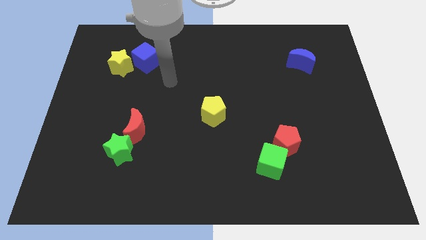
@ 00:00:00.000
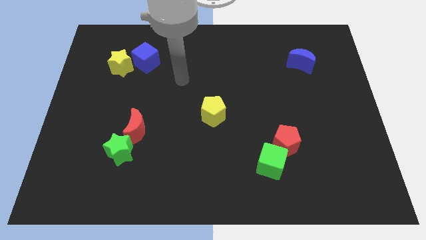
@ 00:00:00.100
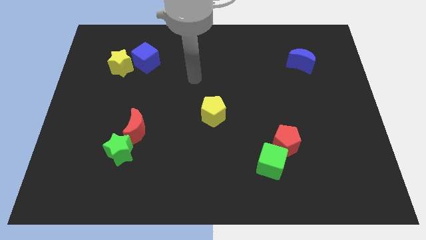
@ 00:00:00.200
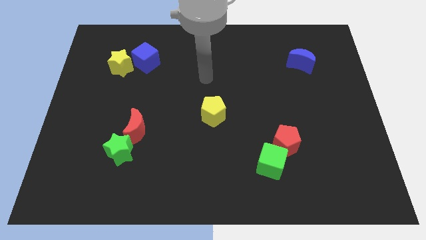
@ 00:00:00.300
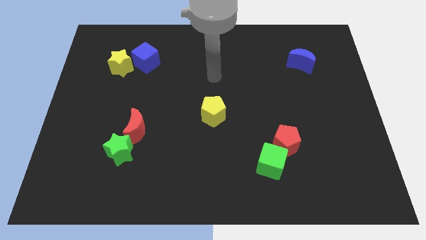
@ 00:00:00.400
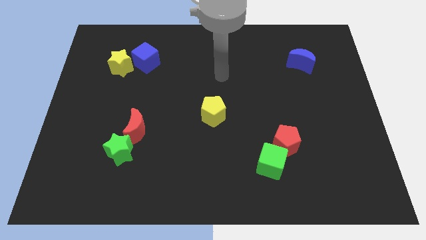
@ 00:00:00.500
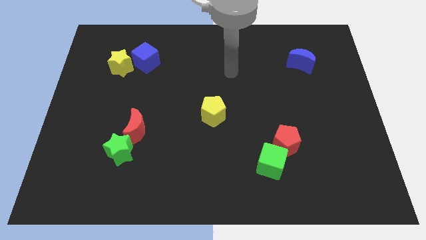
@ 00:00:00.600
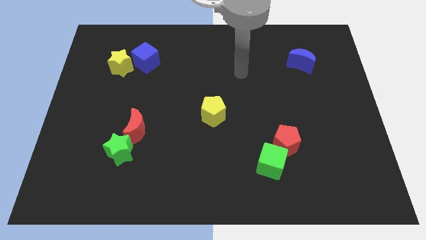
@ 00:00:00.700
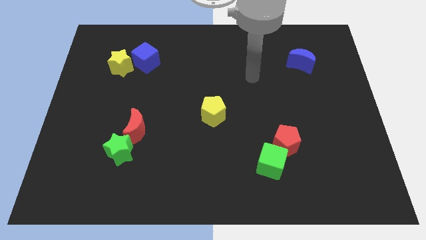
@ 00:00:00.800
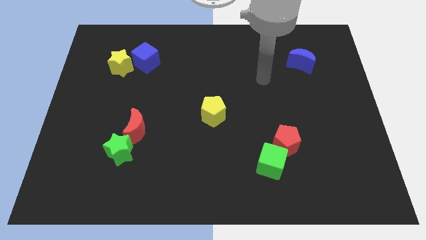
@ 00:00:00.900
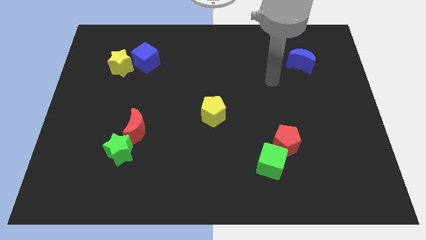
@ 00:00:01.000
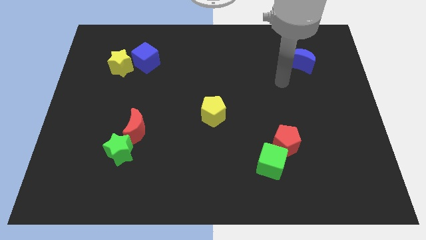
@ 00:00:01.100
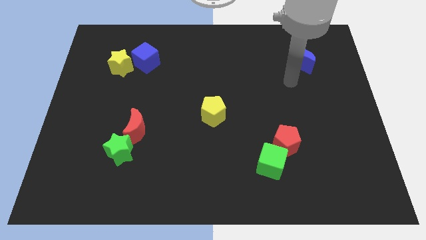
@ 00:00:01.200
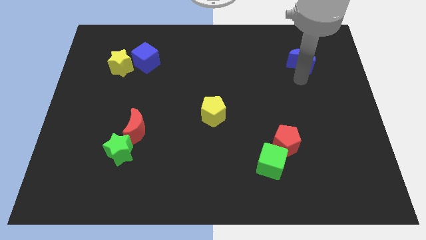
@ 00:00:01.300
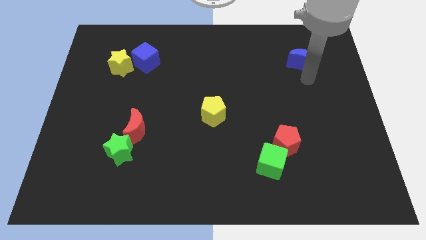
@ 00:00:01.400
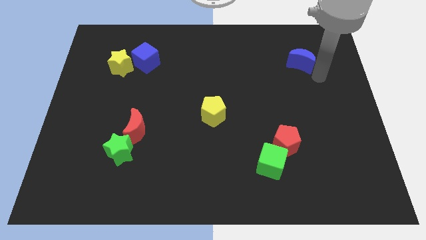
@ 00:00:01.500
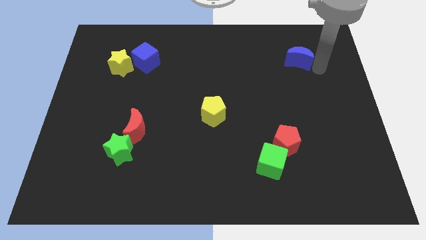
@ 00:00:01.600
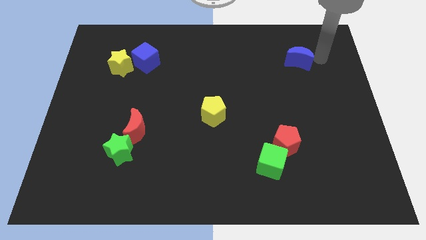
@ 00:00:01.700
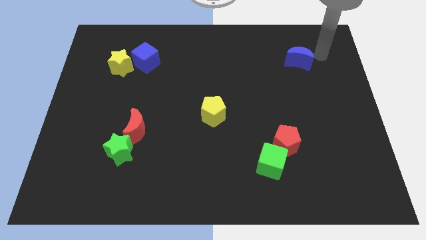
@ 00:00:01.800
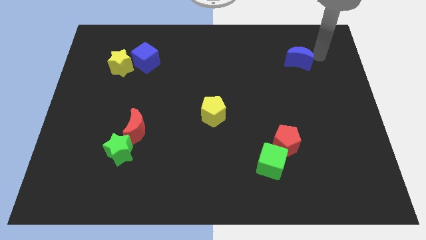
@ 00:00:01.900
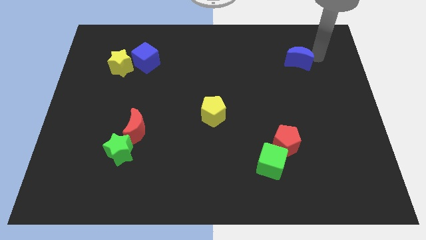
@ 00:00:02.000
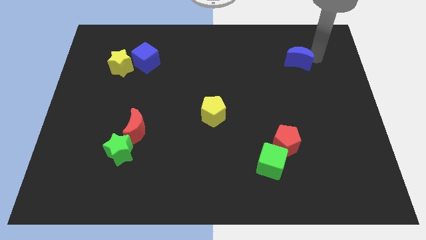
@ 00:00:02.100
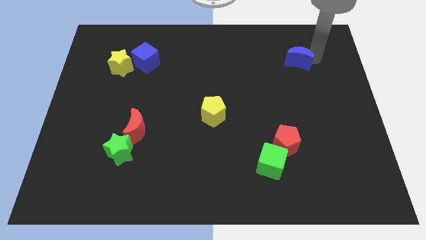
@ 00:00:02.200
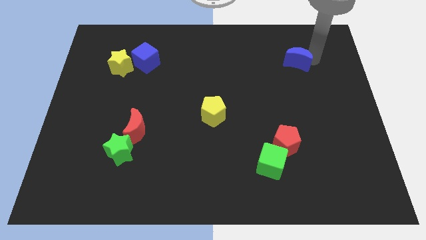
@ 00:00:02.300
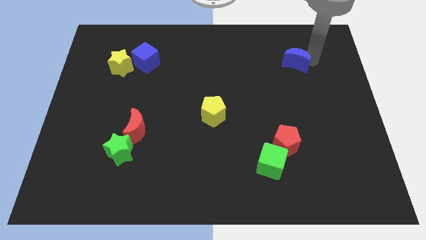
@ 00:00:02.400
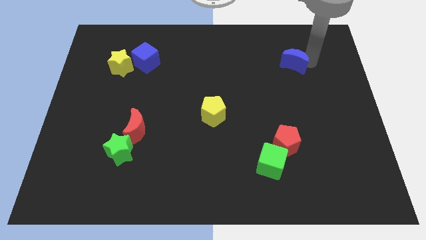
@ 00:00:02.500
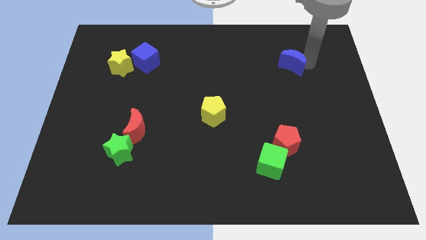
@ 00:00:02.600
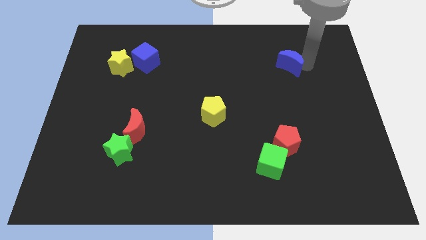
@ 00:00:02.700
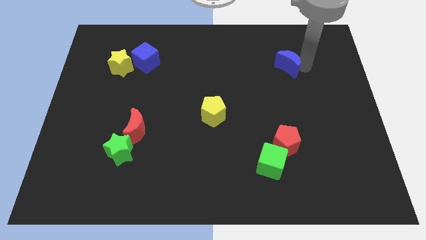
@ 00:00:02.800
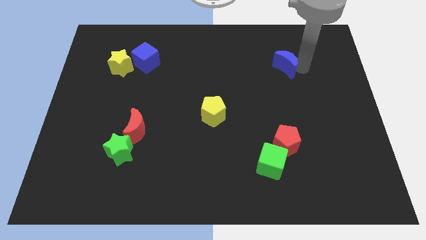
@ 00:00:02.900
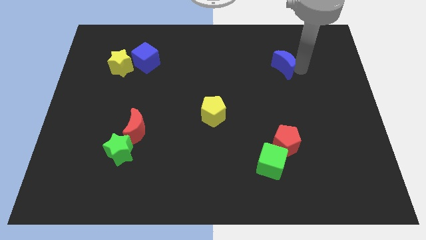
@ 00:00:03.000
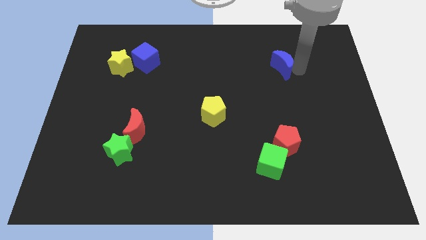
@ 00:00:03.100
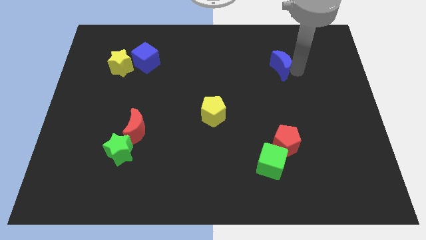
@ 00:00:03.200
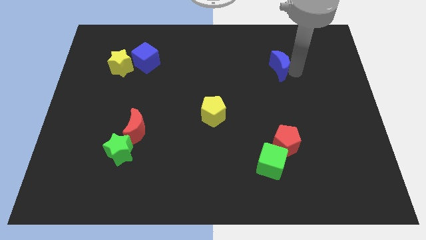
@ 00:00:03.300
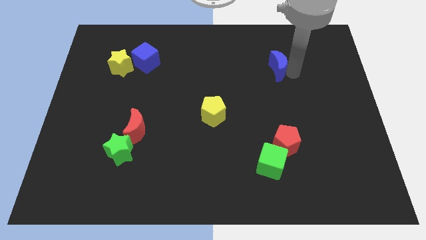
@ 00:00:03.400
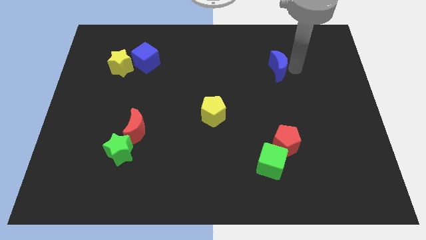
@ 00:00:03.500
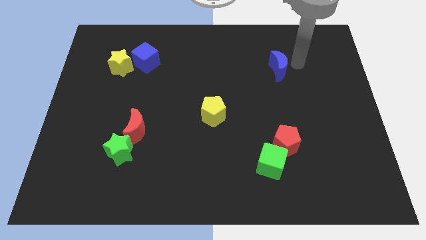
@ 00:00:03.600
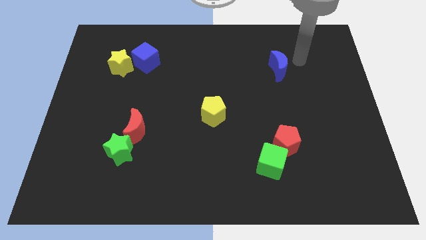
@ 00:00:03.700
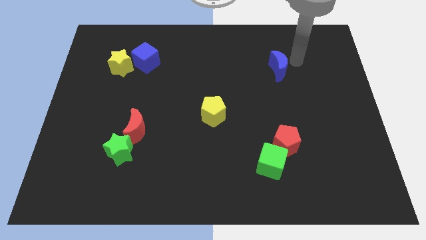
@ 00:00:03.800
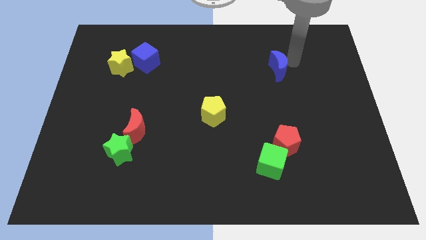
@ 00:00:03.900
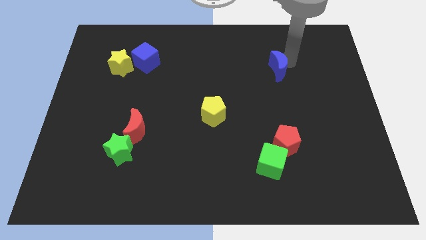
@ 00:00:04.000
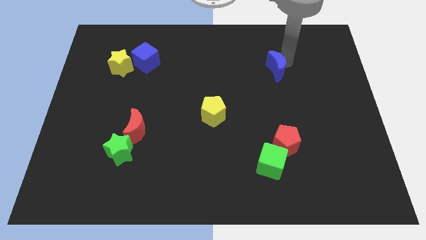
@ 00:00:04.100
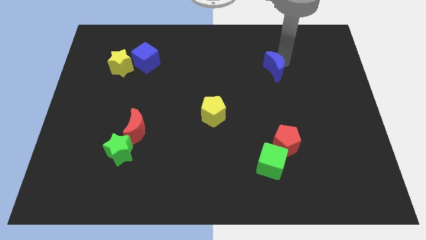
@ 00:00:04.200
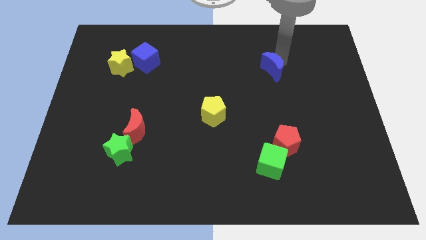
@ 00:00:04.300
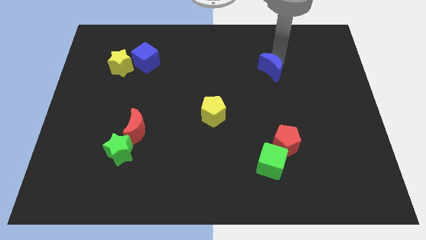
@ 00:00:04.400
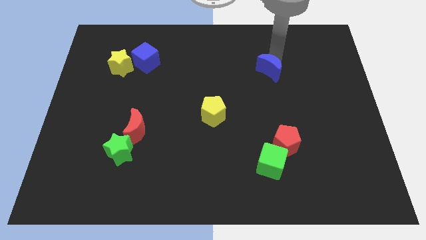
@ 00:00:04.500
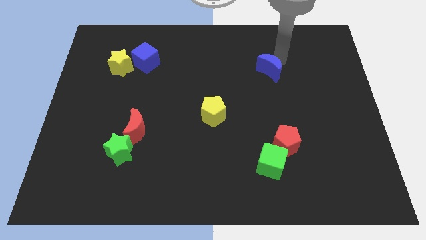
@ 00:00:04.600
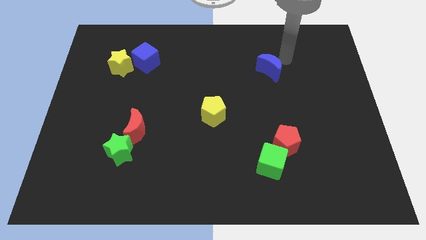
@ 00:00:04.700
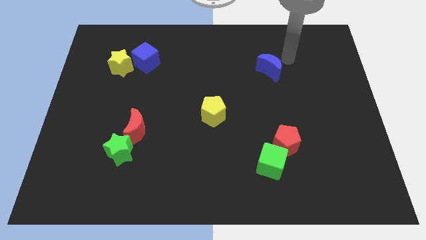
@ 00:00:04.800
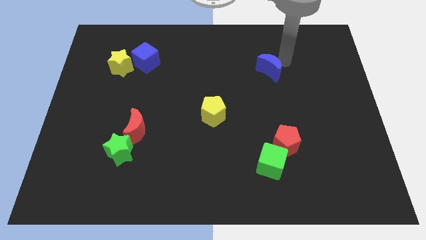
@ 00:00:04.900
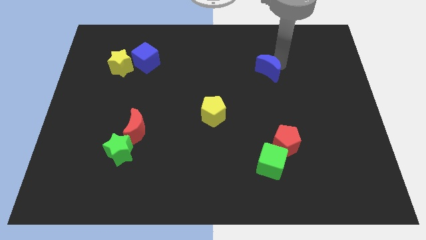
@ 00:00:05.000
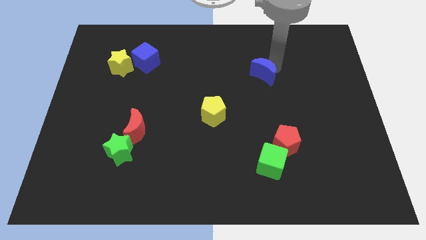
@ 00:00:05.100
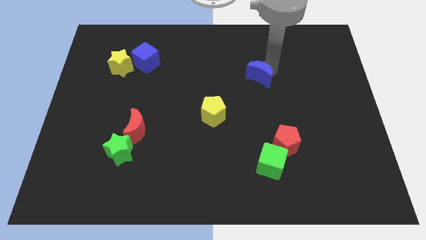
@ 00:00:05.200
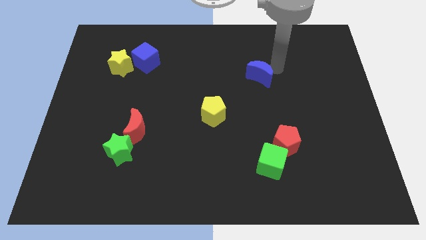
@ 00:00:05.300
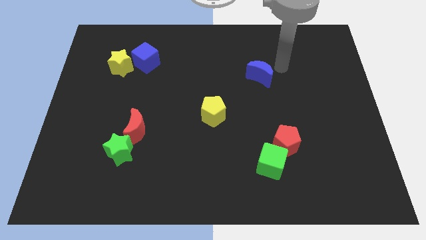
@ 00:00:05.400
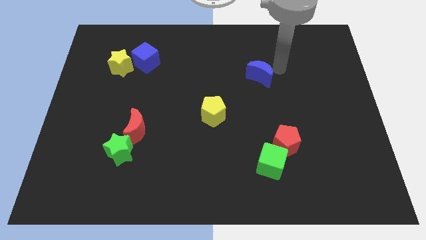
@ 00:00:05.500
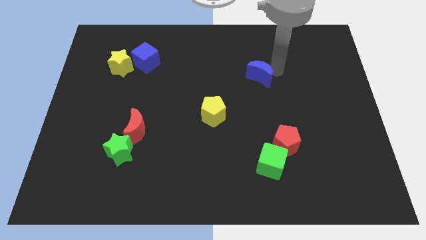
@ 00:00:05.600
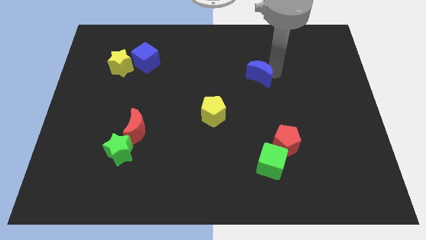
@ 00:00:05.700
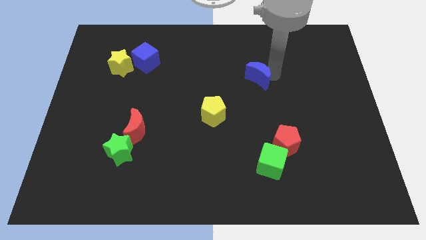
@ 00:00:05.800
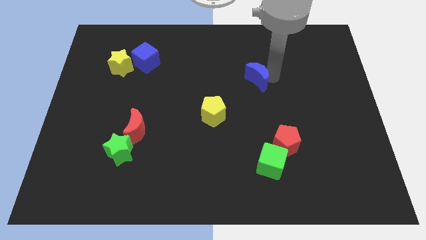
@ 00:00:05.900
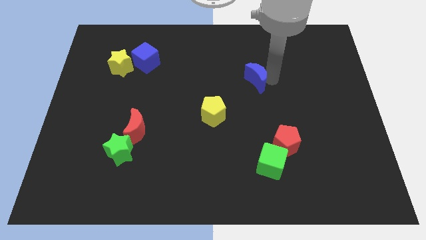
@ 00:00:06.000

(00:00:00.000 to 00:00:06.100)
put the blue moon to the center of the board

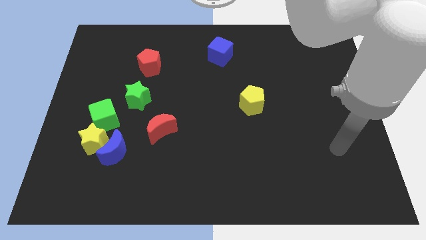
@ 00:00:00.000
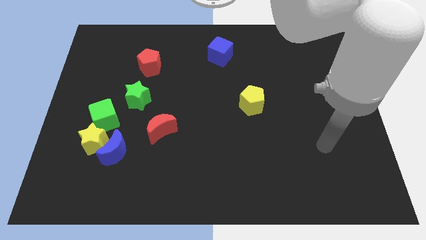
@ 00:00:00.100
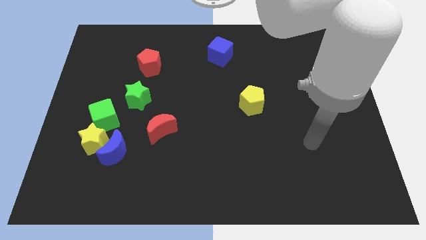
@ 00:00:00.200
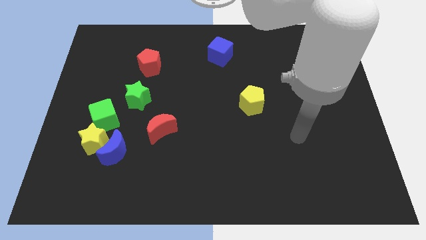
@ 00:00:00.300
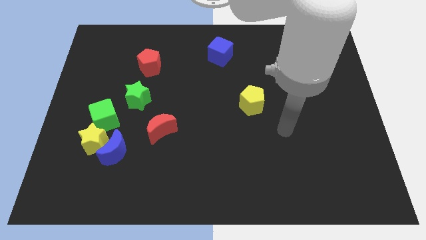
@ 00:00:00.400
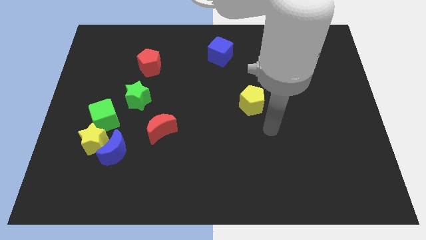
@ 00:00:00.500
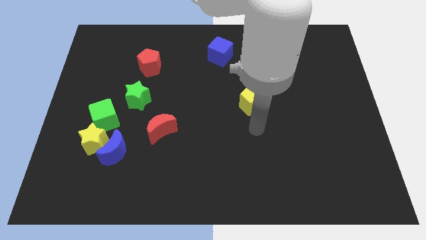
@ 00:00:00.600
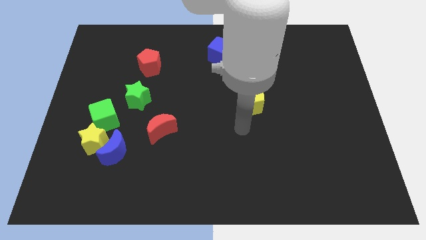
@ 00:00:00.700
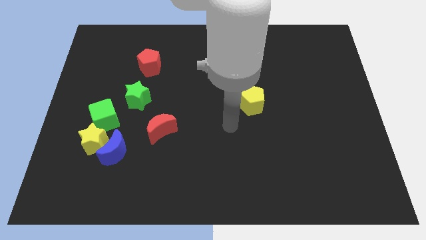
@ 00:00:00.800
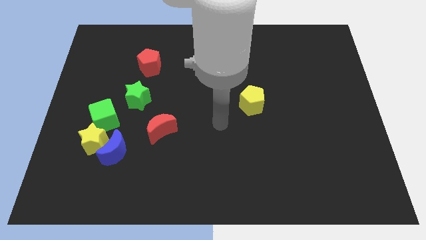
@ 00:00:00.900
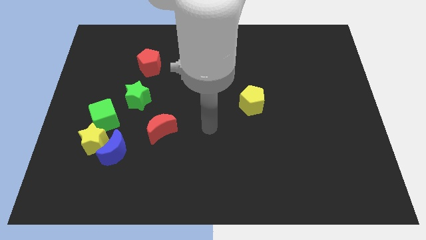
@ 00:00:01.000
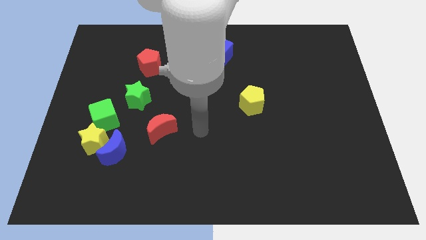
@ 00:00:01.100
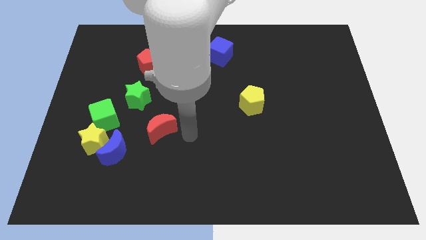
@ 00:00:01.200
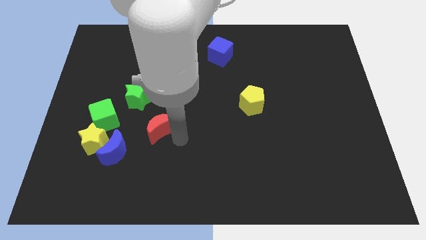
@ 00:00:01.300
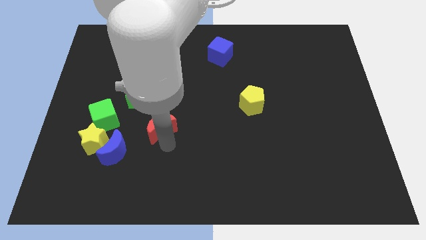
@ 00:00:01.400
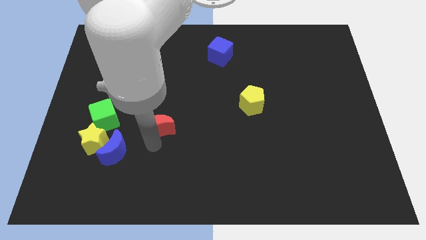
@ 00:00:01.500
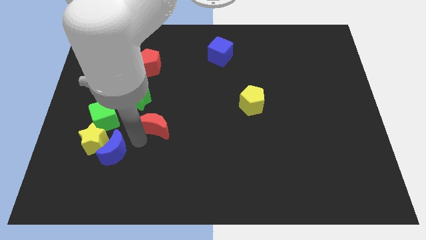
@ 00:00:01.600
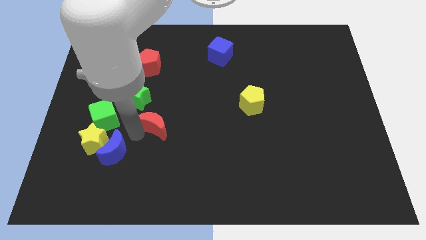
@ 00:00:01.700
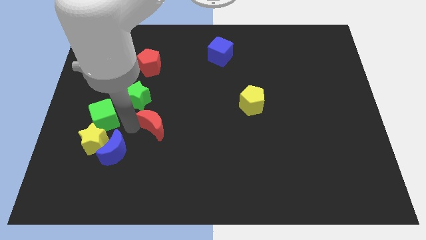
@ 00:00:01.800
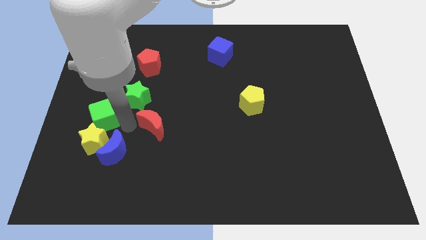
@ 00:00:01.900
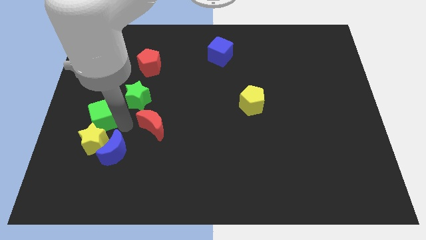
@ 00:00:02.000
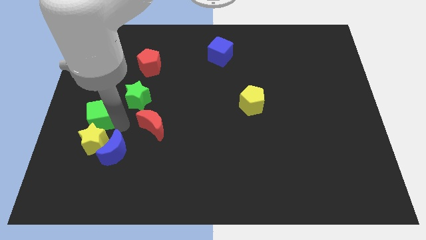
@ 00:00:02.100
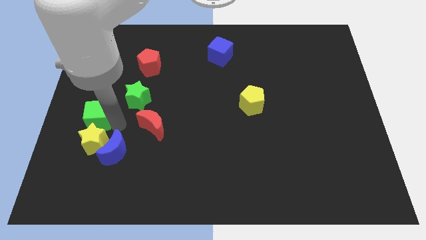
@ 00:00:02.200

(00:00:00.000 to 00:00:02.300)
slide the green cube to the left side of the board
